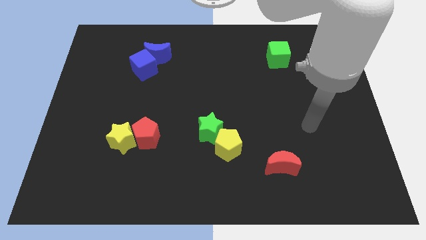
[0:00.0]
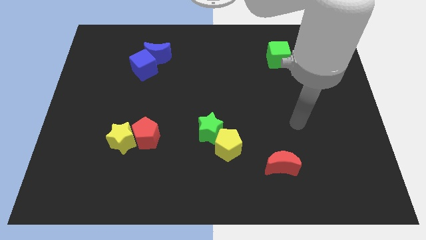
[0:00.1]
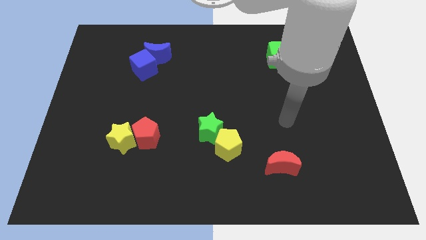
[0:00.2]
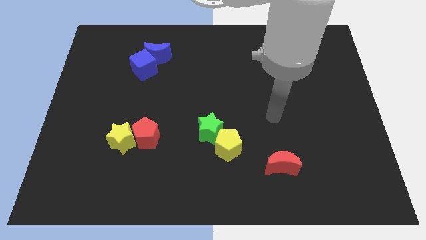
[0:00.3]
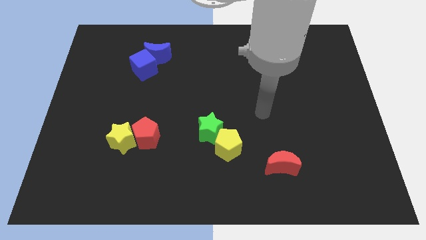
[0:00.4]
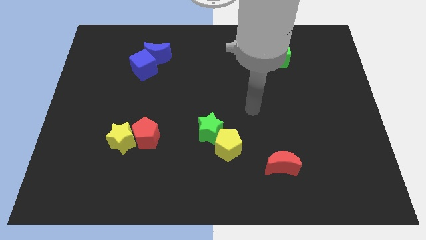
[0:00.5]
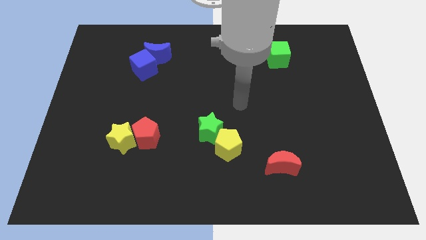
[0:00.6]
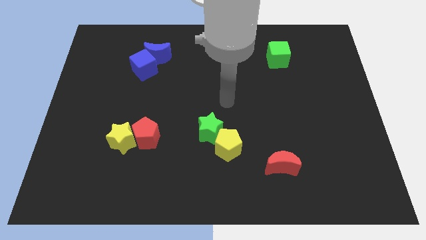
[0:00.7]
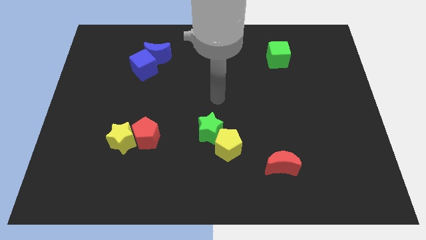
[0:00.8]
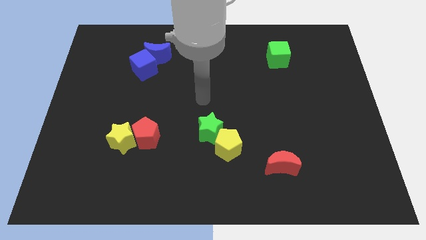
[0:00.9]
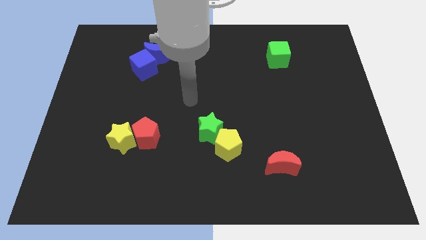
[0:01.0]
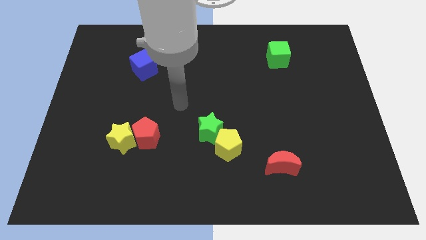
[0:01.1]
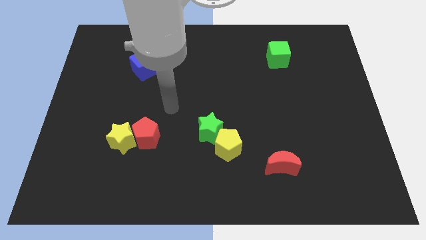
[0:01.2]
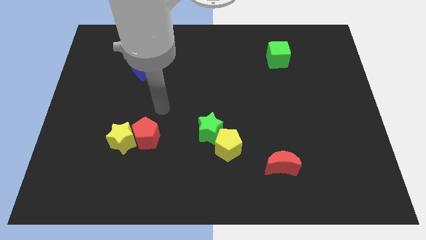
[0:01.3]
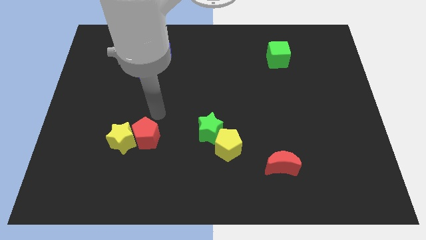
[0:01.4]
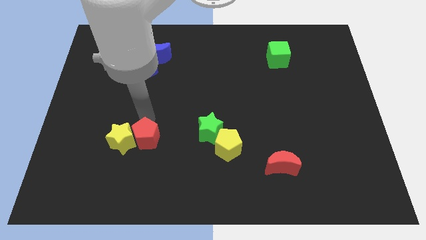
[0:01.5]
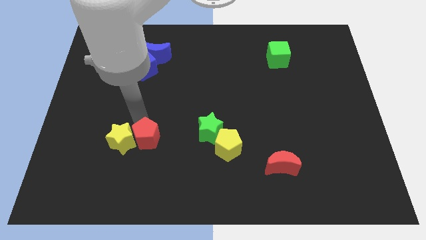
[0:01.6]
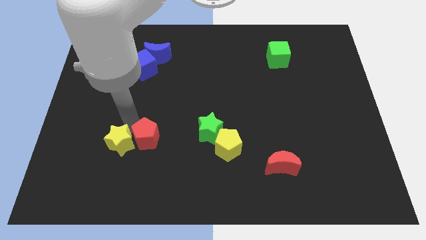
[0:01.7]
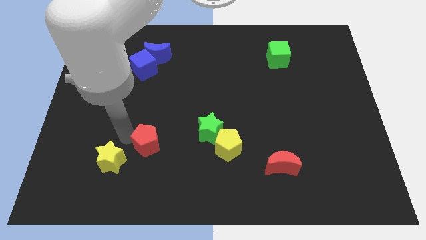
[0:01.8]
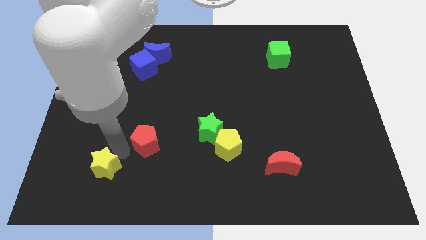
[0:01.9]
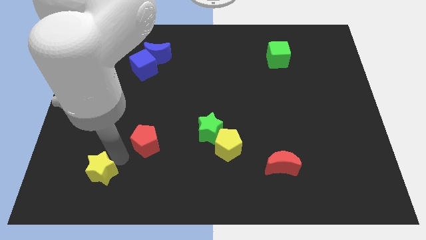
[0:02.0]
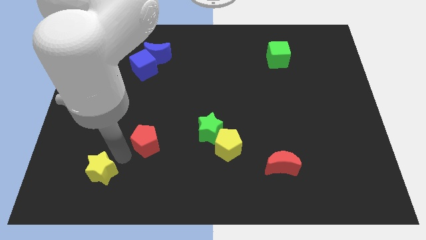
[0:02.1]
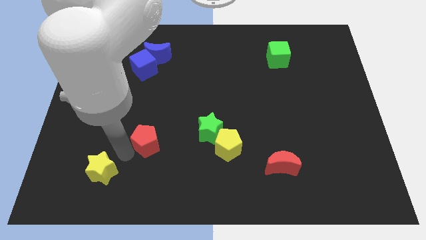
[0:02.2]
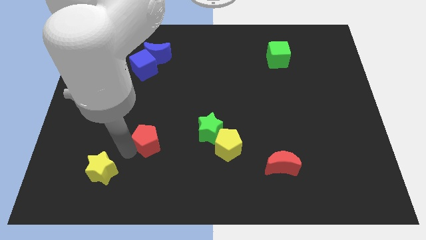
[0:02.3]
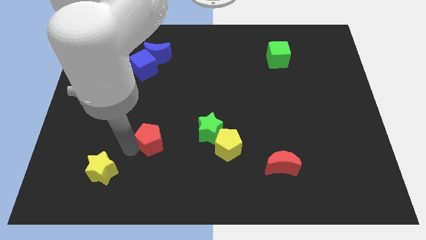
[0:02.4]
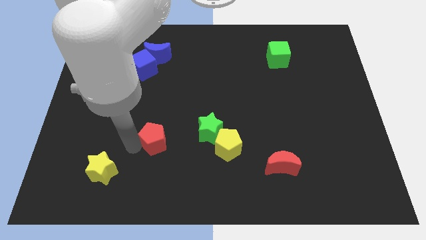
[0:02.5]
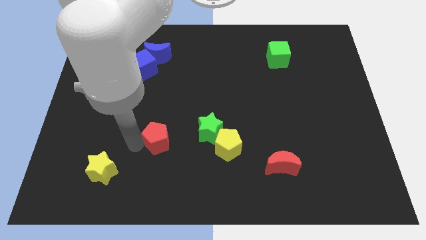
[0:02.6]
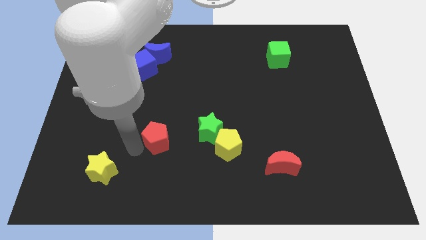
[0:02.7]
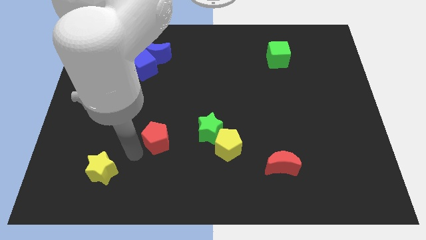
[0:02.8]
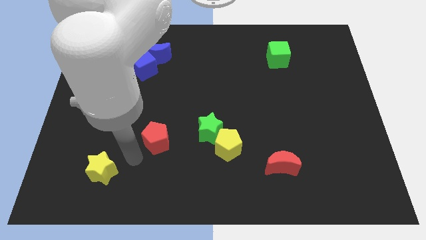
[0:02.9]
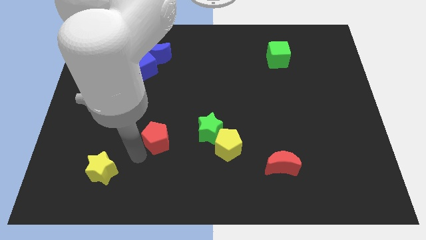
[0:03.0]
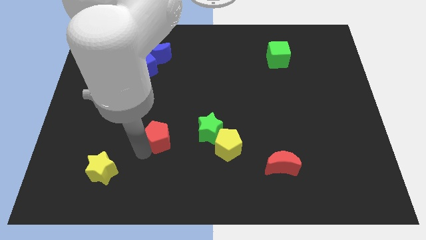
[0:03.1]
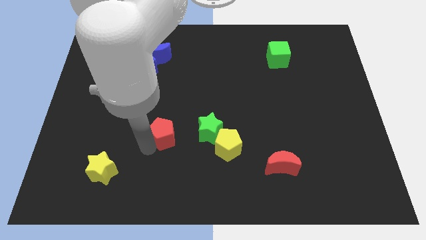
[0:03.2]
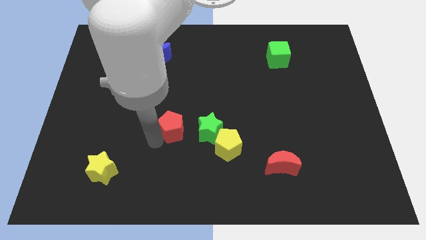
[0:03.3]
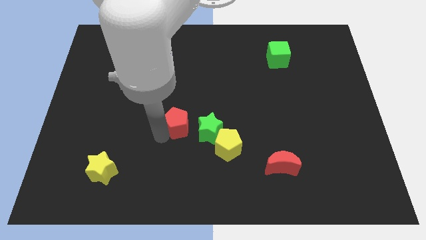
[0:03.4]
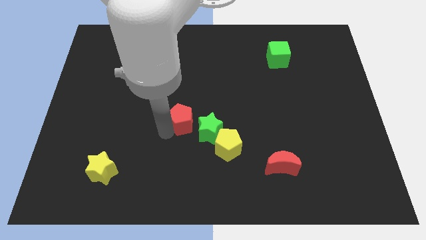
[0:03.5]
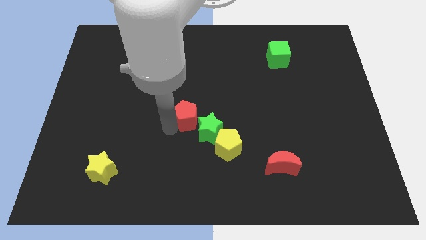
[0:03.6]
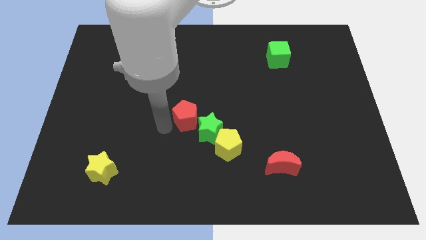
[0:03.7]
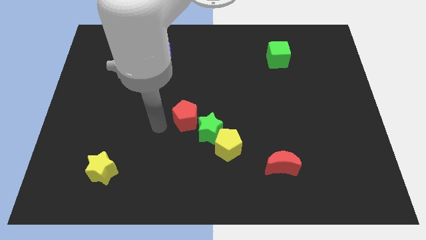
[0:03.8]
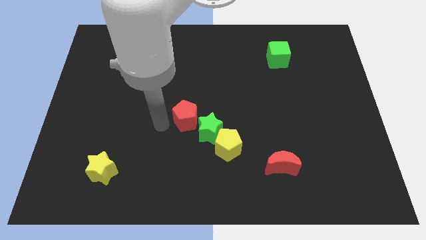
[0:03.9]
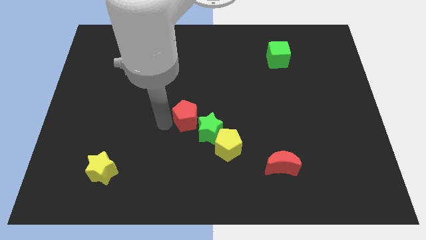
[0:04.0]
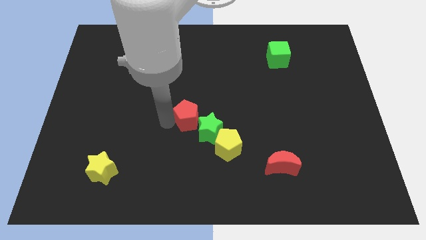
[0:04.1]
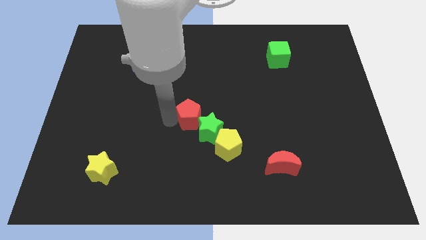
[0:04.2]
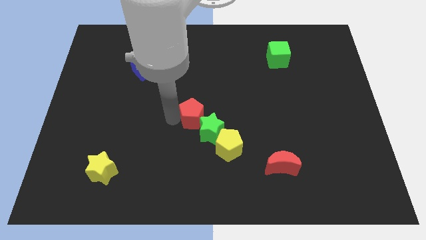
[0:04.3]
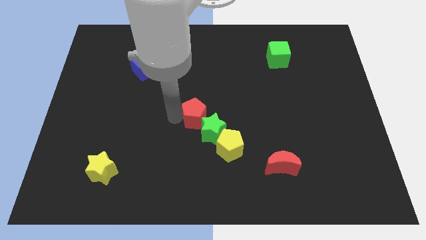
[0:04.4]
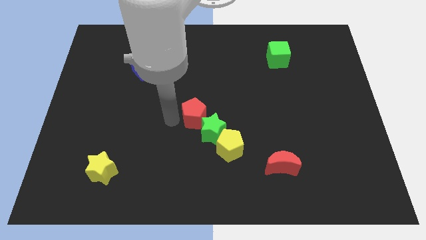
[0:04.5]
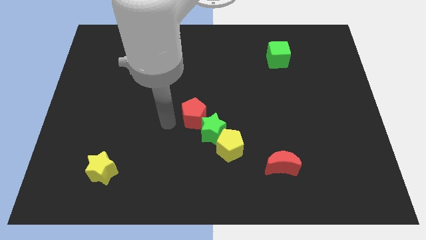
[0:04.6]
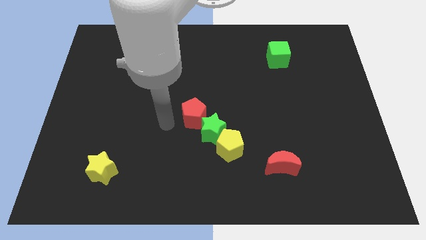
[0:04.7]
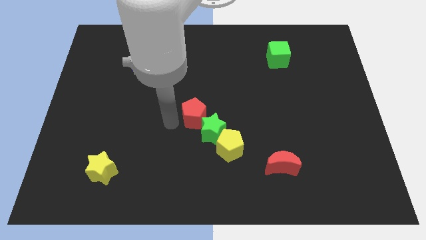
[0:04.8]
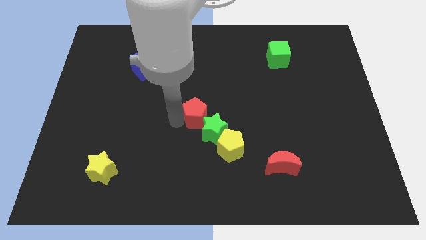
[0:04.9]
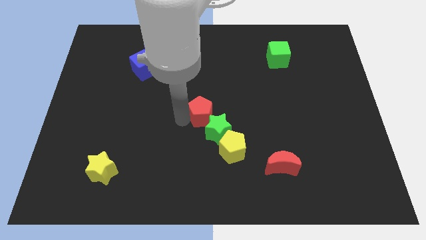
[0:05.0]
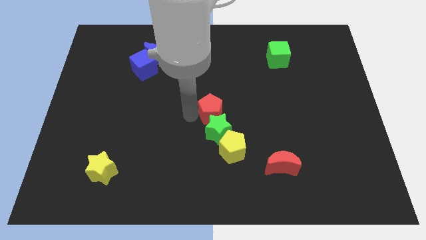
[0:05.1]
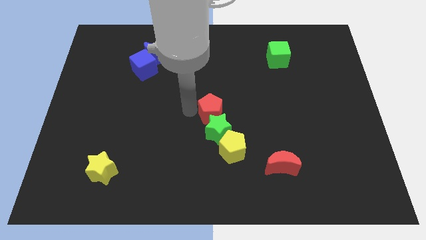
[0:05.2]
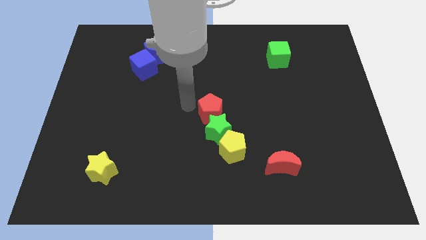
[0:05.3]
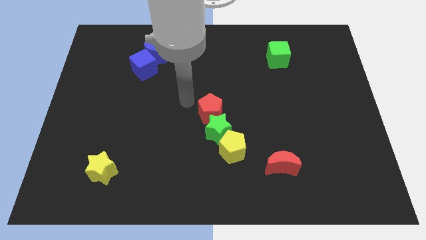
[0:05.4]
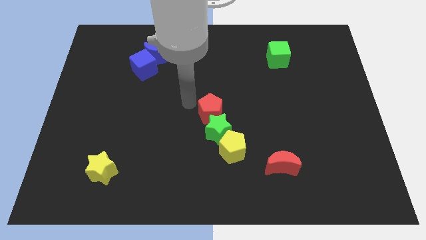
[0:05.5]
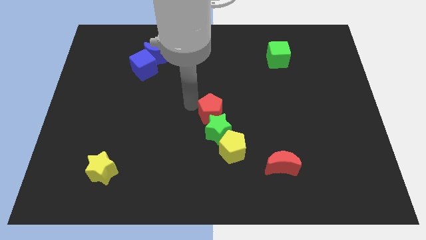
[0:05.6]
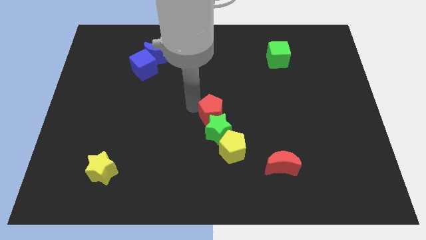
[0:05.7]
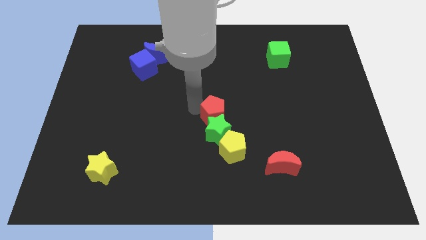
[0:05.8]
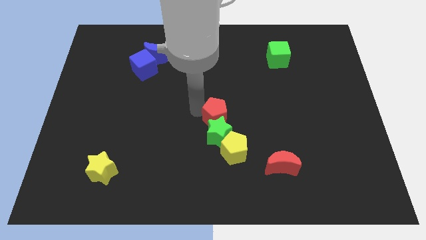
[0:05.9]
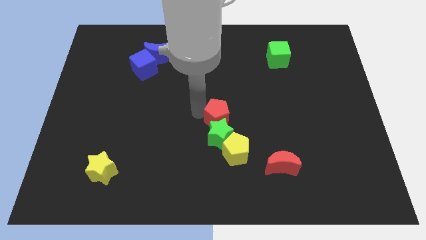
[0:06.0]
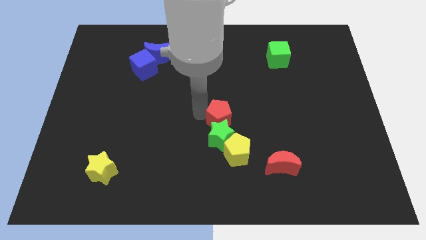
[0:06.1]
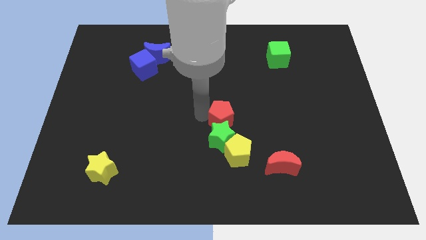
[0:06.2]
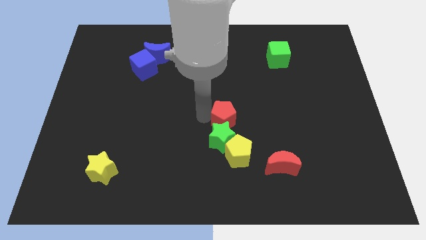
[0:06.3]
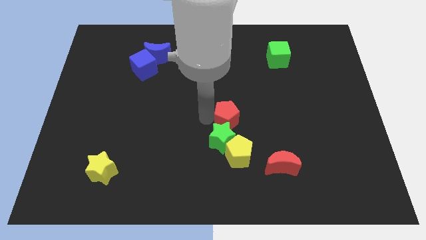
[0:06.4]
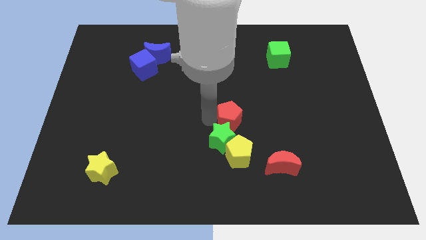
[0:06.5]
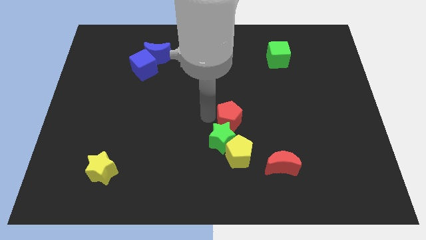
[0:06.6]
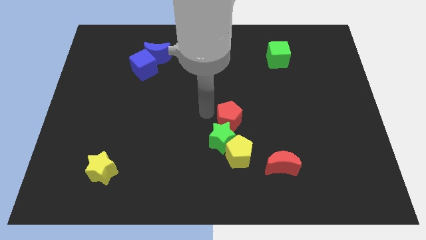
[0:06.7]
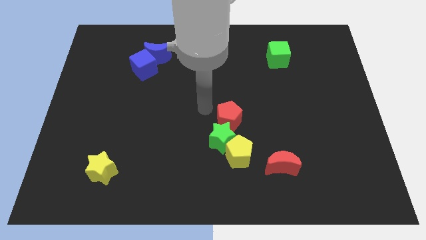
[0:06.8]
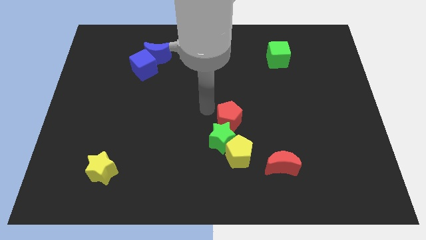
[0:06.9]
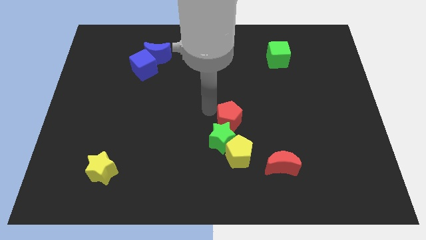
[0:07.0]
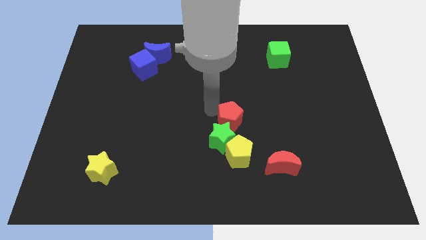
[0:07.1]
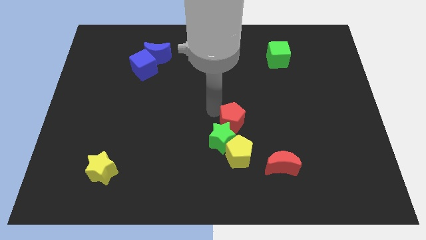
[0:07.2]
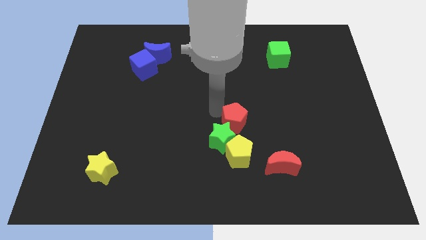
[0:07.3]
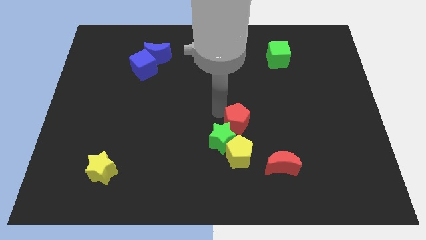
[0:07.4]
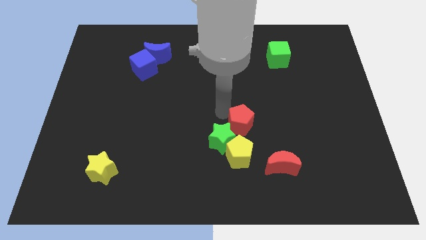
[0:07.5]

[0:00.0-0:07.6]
move the red pentagon to the right

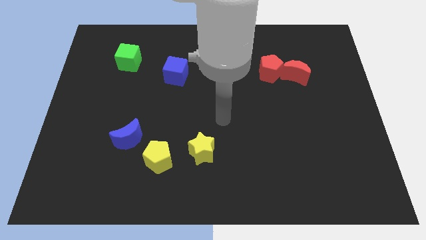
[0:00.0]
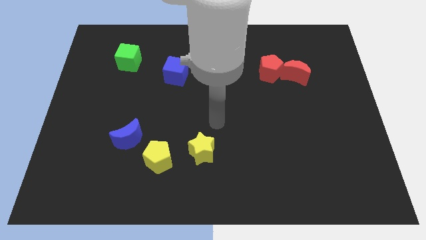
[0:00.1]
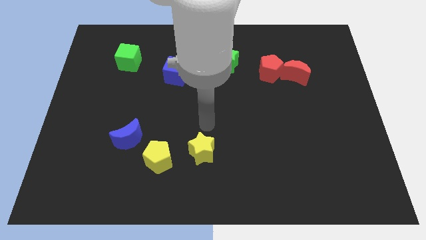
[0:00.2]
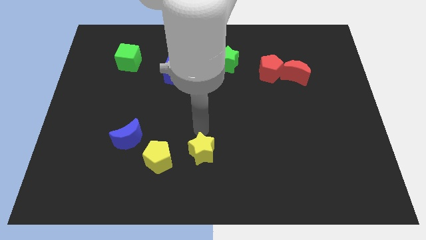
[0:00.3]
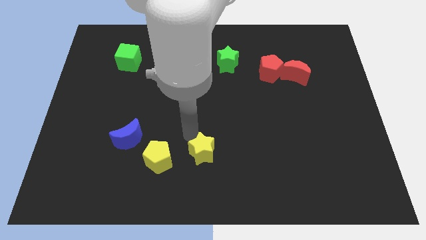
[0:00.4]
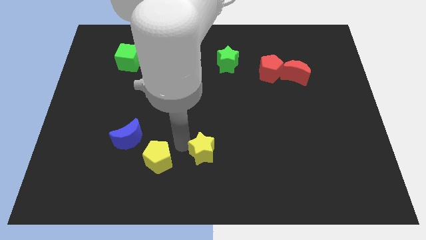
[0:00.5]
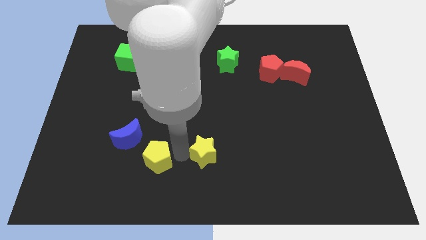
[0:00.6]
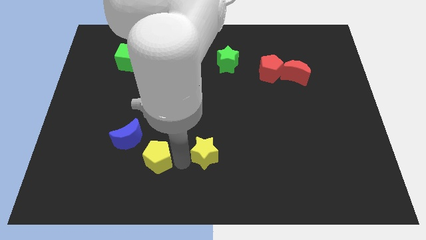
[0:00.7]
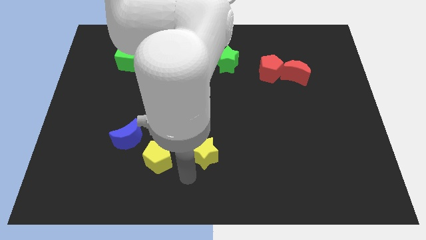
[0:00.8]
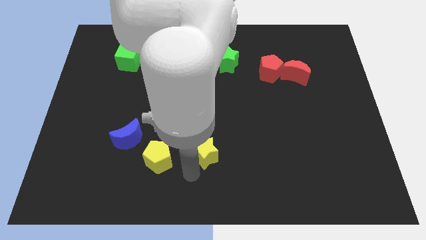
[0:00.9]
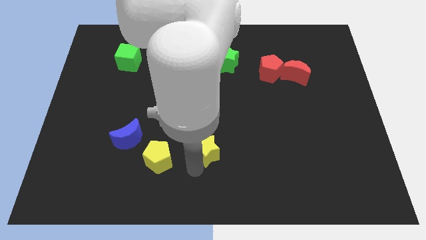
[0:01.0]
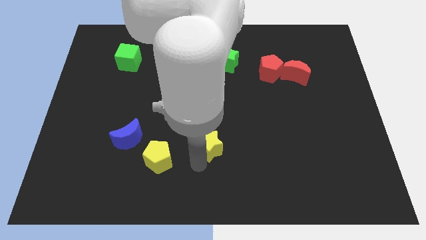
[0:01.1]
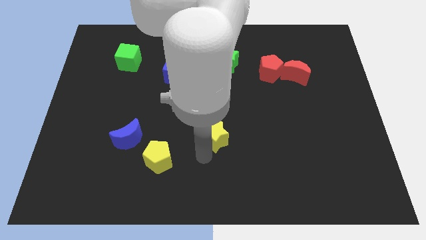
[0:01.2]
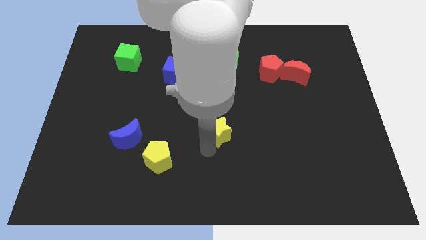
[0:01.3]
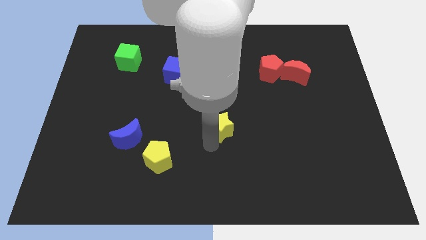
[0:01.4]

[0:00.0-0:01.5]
slightly push the yellow star diagonally upwards and right
